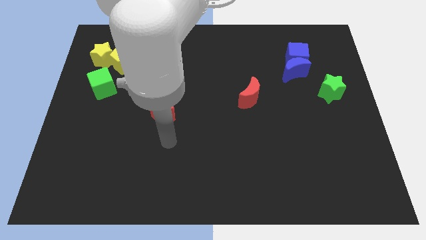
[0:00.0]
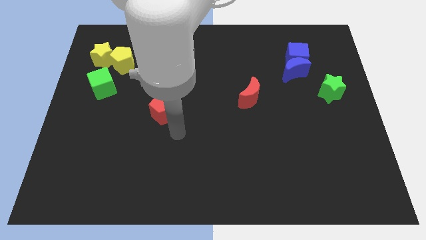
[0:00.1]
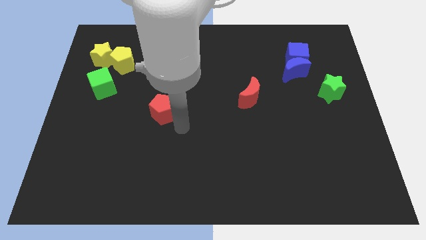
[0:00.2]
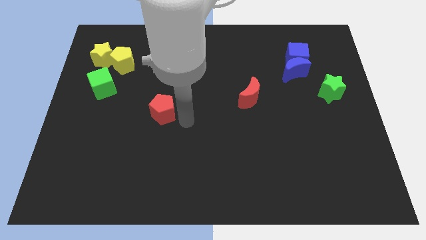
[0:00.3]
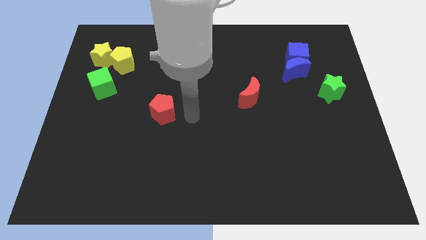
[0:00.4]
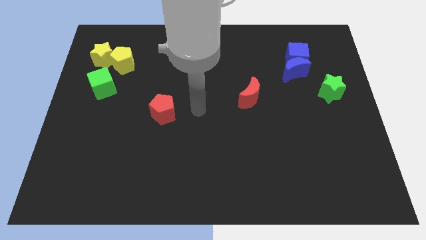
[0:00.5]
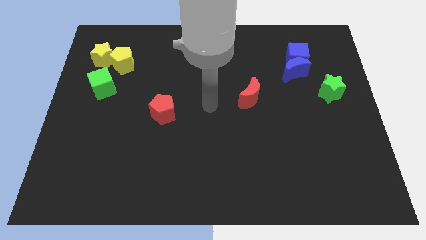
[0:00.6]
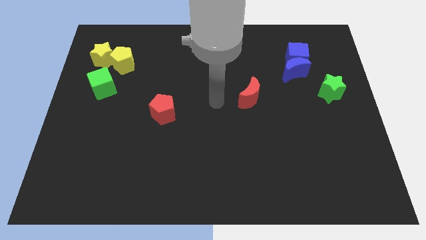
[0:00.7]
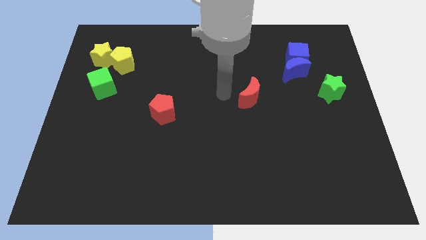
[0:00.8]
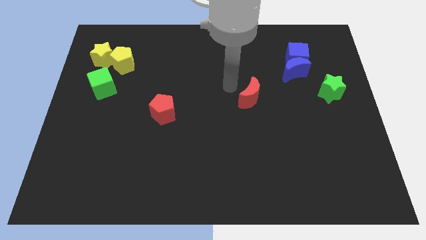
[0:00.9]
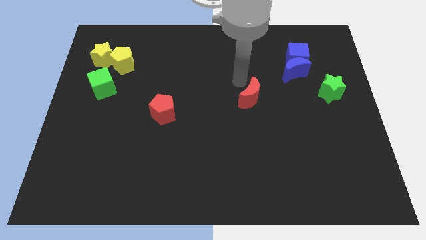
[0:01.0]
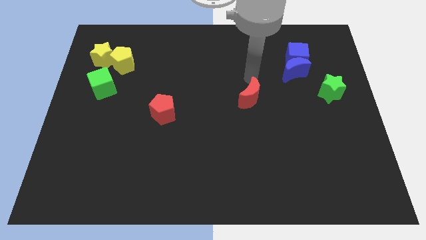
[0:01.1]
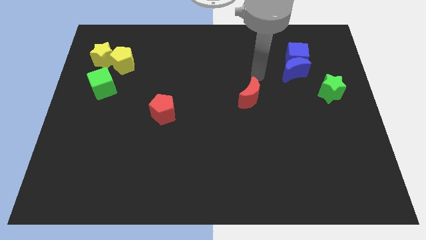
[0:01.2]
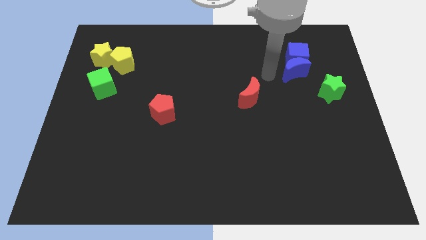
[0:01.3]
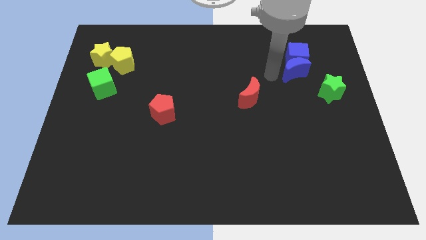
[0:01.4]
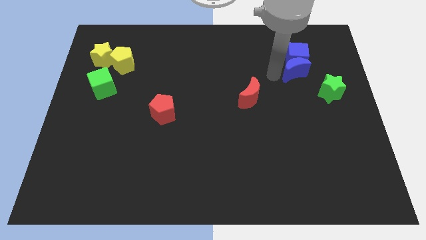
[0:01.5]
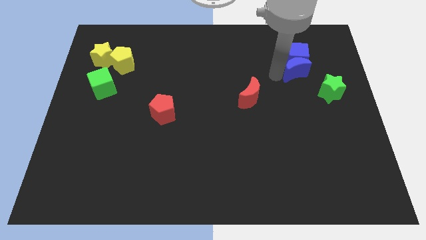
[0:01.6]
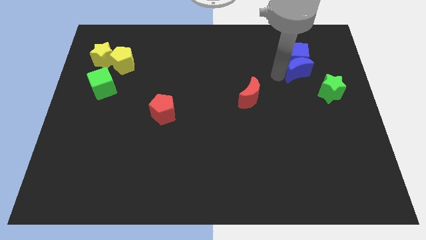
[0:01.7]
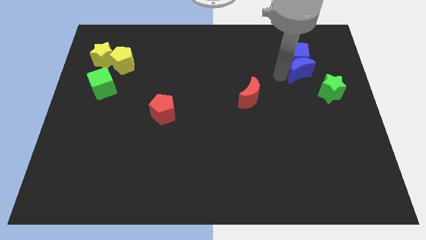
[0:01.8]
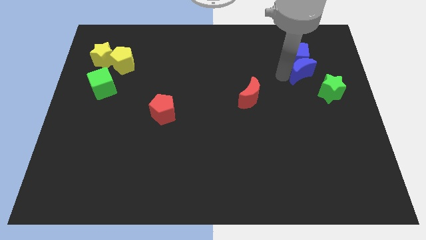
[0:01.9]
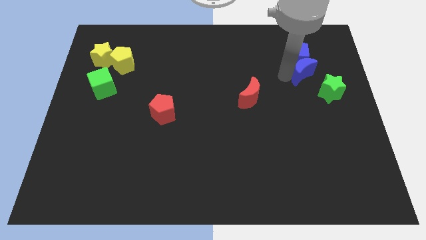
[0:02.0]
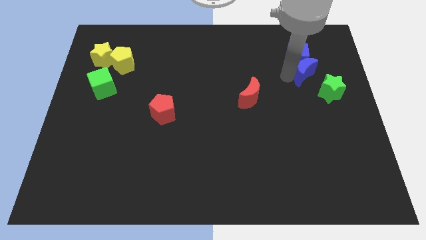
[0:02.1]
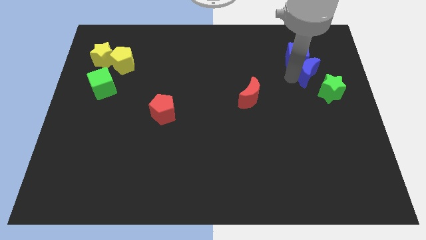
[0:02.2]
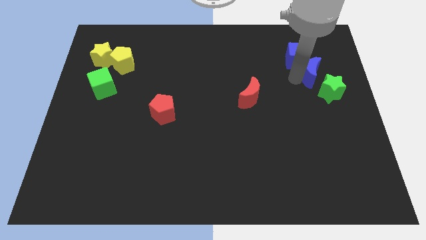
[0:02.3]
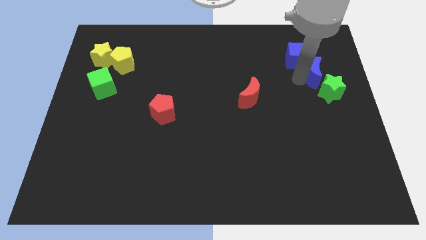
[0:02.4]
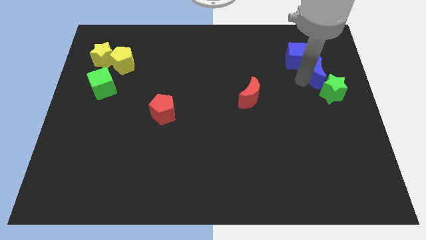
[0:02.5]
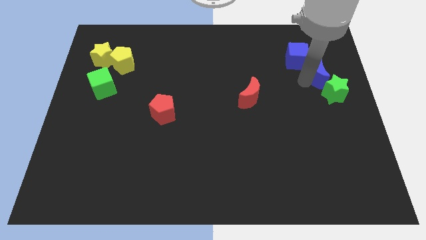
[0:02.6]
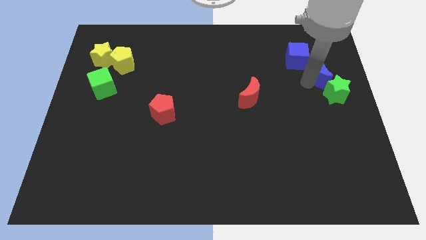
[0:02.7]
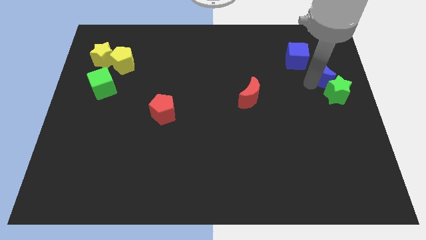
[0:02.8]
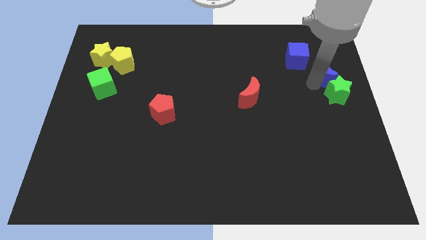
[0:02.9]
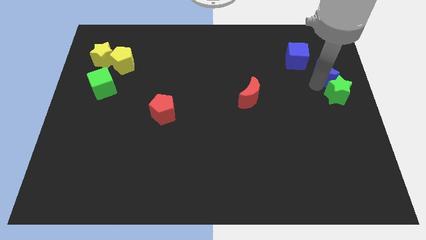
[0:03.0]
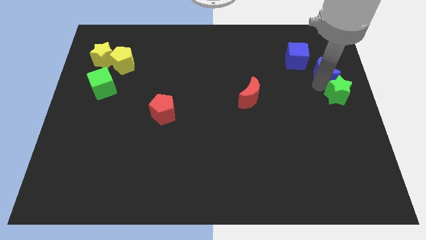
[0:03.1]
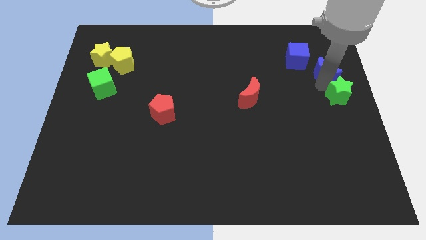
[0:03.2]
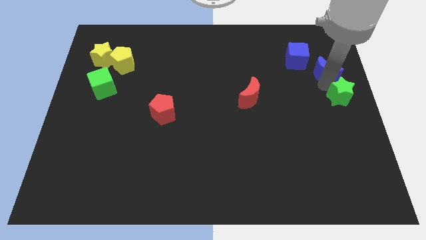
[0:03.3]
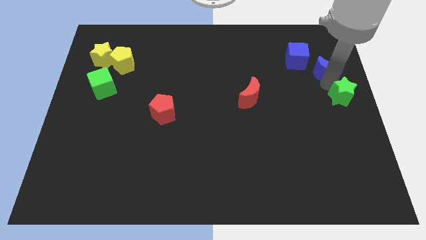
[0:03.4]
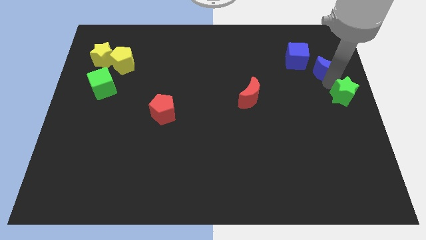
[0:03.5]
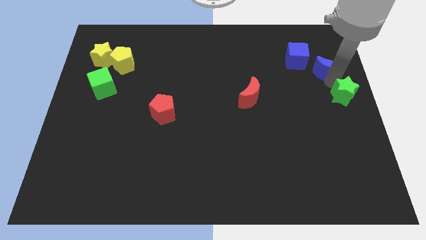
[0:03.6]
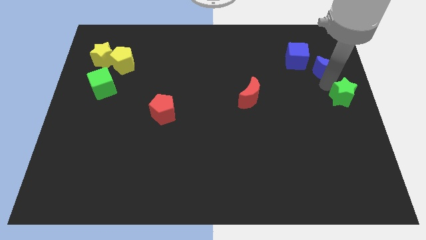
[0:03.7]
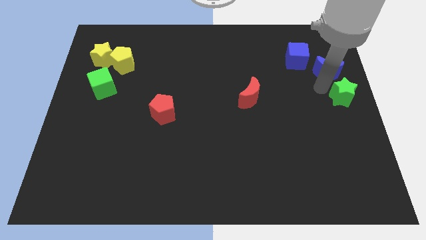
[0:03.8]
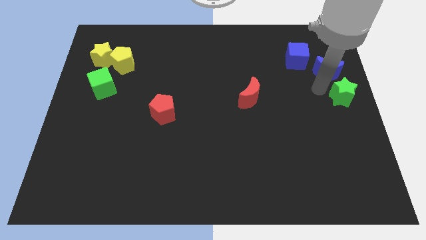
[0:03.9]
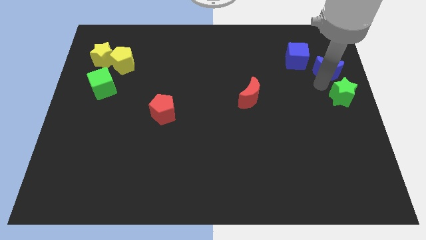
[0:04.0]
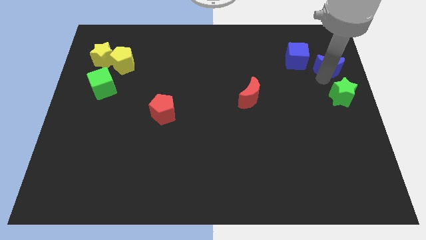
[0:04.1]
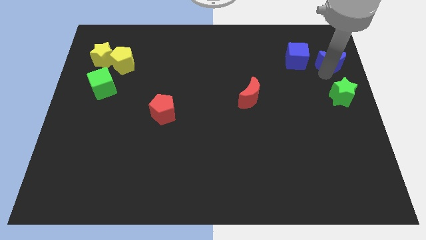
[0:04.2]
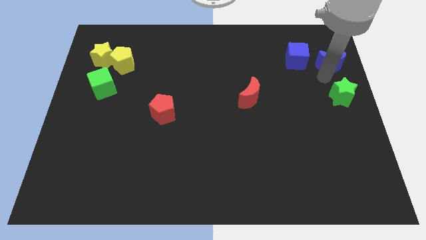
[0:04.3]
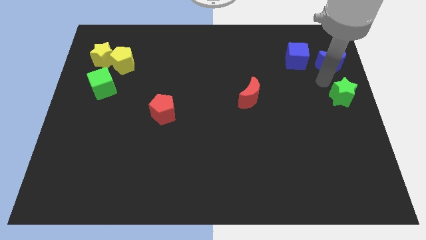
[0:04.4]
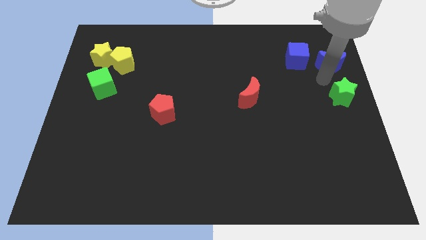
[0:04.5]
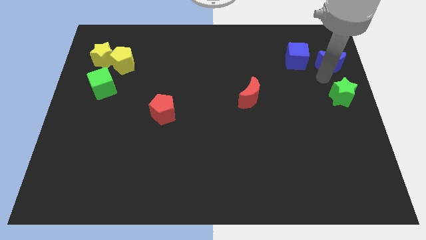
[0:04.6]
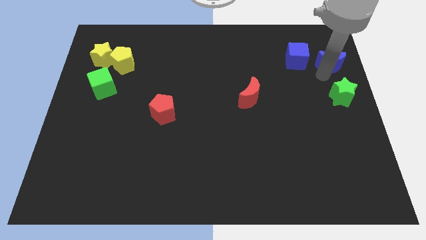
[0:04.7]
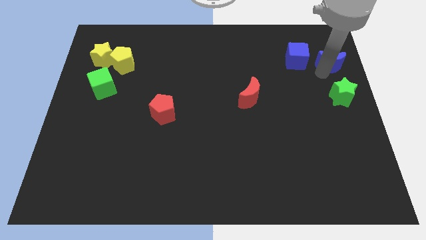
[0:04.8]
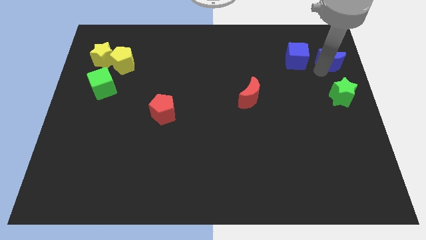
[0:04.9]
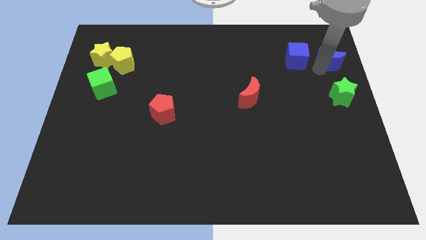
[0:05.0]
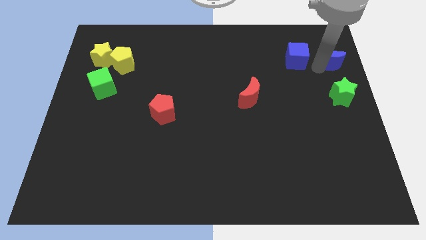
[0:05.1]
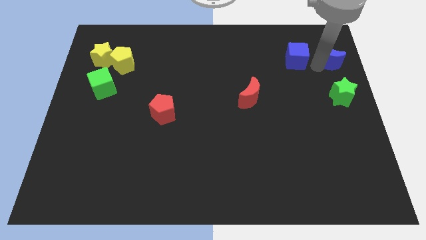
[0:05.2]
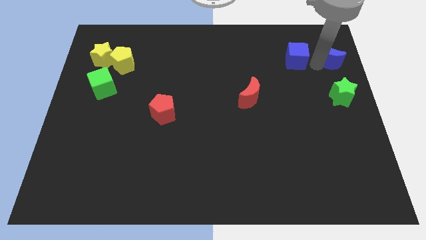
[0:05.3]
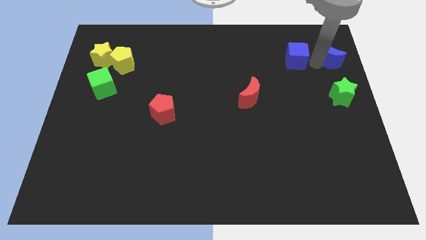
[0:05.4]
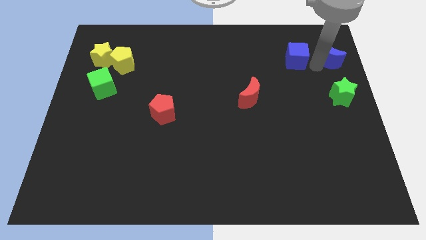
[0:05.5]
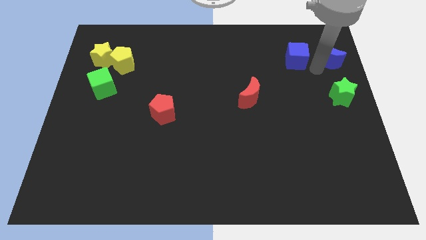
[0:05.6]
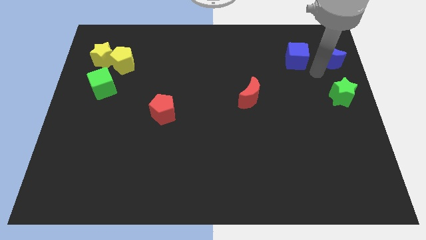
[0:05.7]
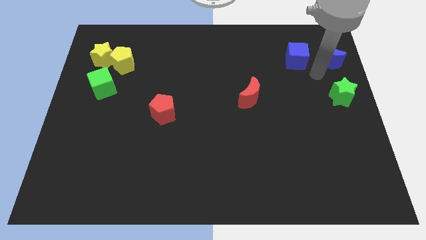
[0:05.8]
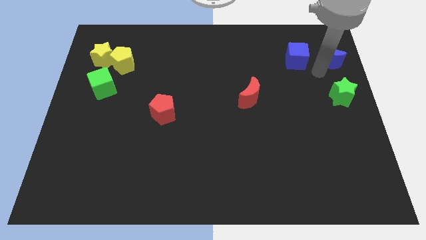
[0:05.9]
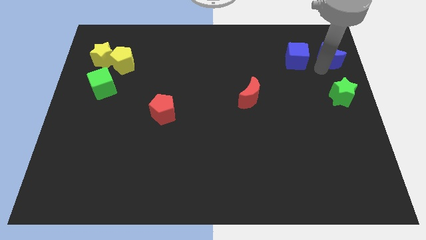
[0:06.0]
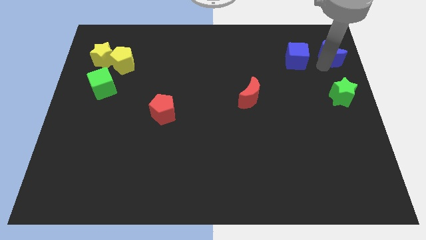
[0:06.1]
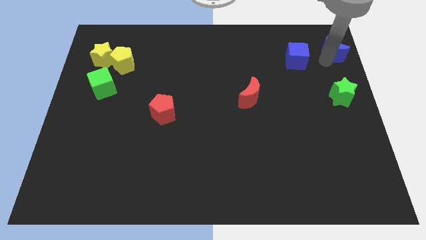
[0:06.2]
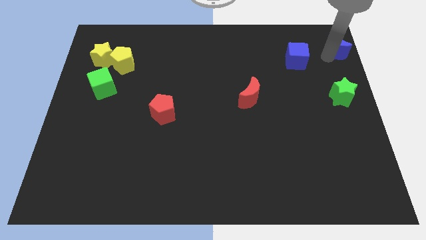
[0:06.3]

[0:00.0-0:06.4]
put the blue moon to the upper right corner
